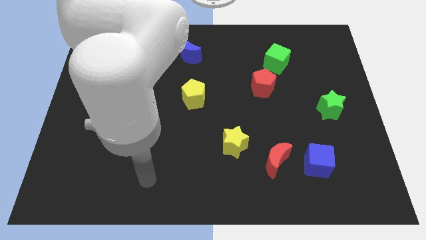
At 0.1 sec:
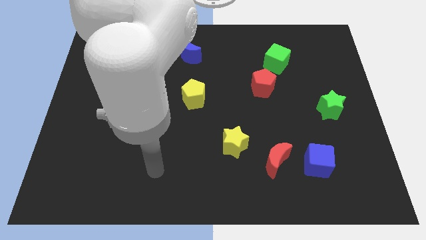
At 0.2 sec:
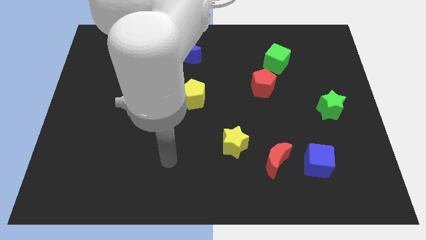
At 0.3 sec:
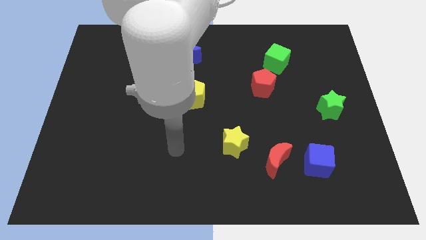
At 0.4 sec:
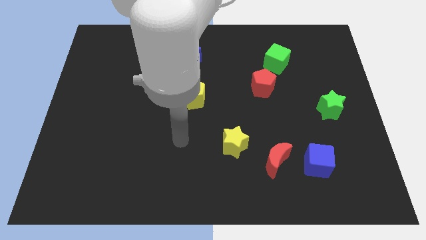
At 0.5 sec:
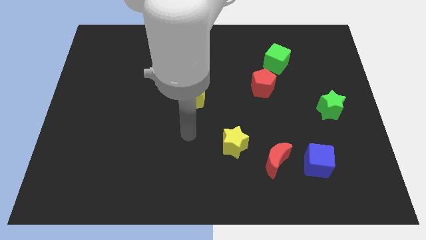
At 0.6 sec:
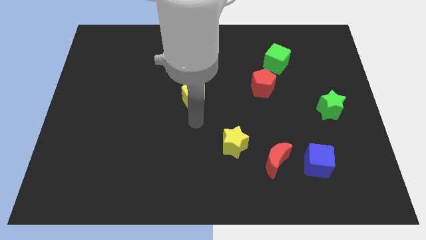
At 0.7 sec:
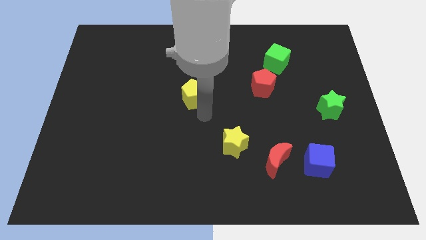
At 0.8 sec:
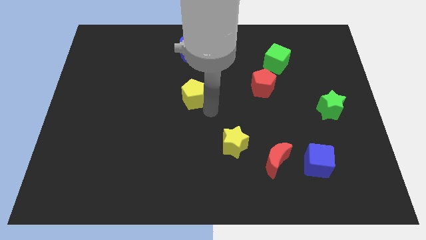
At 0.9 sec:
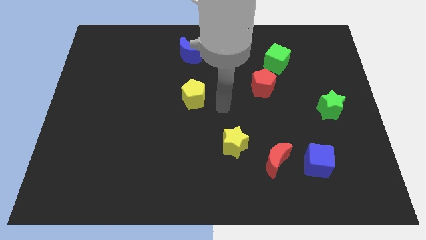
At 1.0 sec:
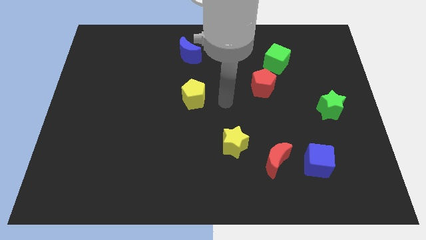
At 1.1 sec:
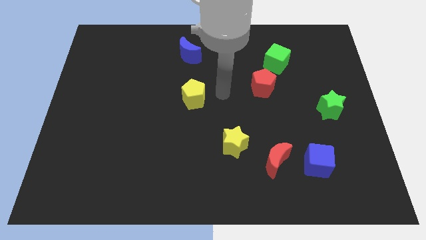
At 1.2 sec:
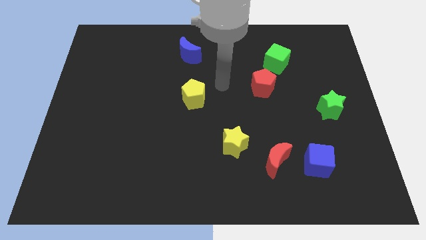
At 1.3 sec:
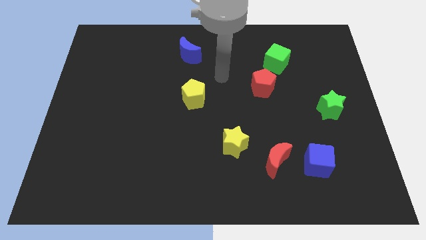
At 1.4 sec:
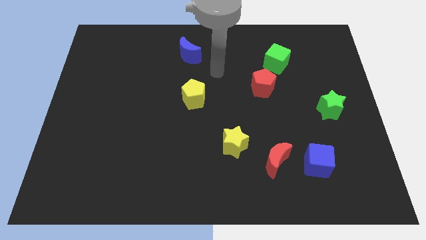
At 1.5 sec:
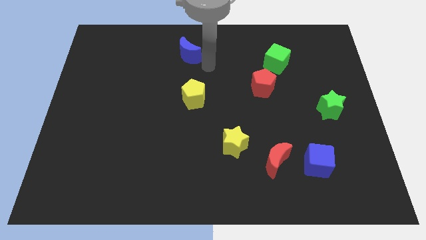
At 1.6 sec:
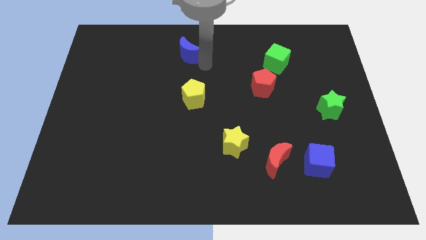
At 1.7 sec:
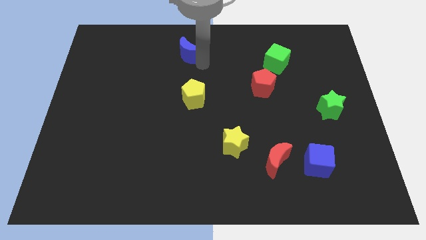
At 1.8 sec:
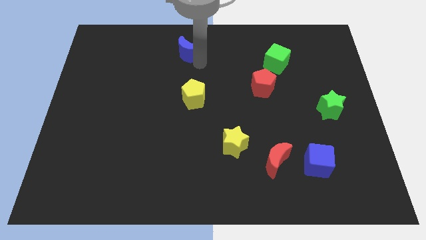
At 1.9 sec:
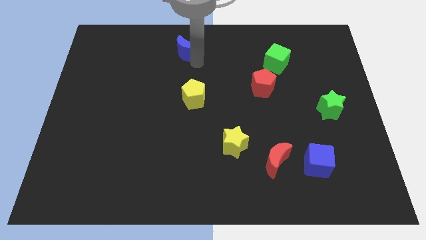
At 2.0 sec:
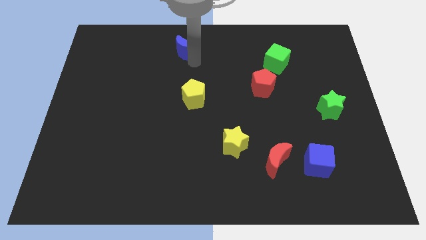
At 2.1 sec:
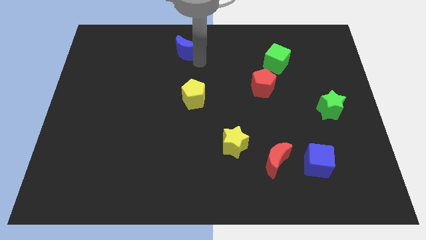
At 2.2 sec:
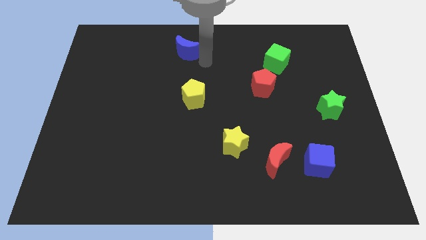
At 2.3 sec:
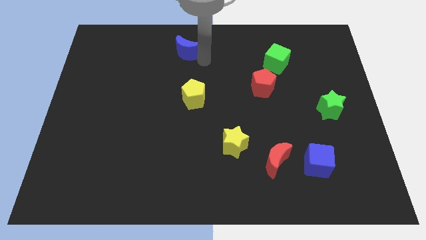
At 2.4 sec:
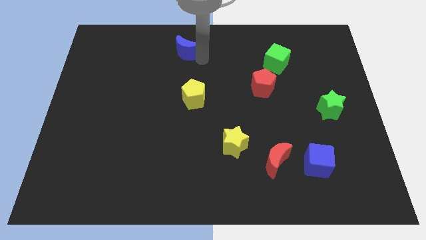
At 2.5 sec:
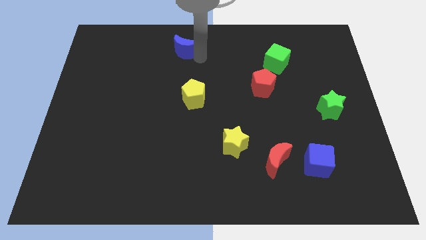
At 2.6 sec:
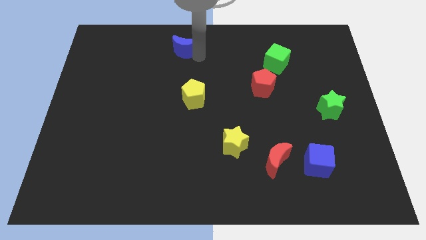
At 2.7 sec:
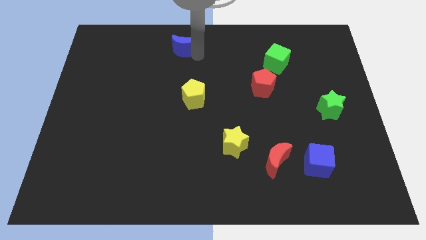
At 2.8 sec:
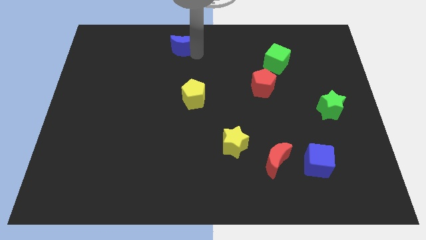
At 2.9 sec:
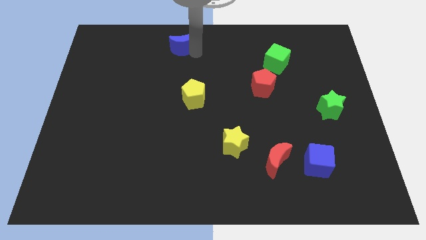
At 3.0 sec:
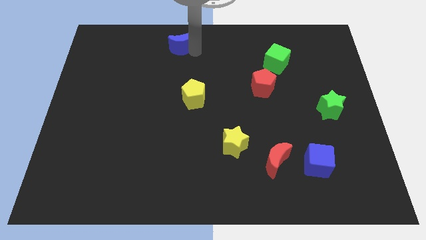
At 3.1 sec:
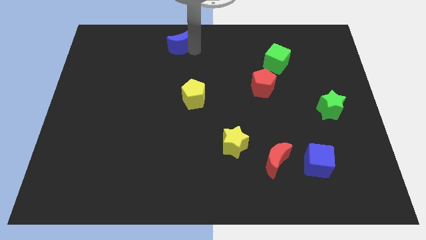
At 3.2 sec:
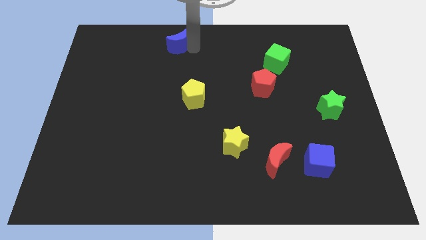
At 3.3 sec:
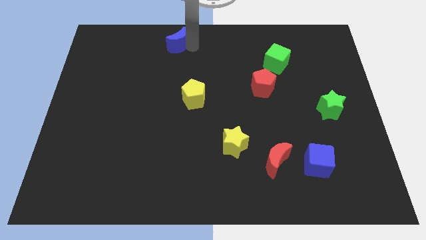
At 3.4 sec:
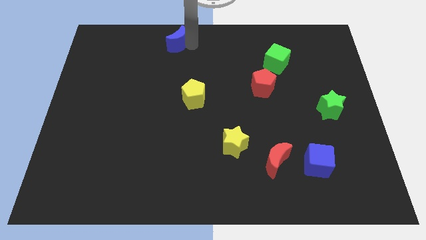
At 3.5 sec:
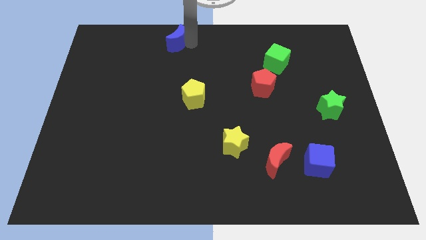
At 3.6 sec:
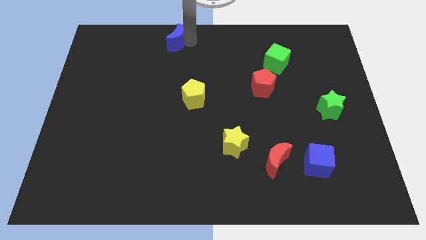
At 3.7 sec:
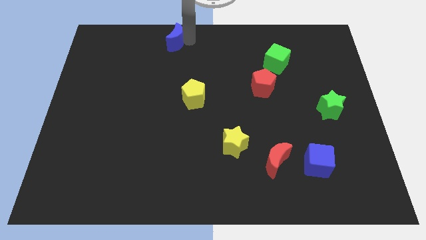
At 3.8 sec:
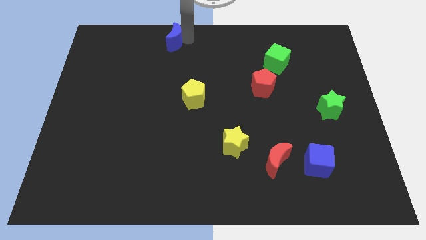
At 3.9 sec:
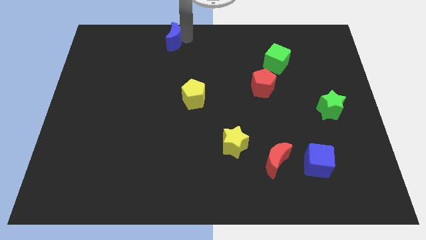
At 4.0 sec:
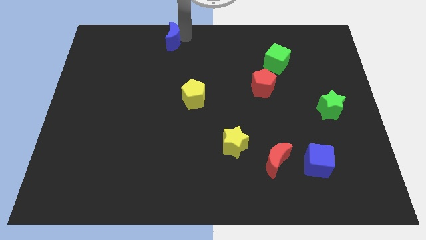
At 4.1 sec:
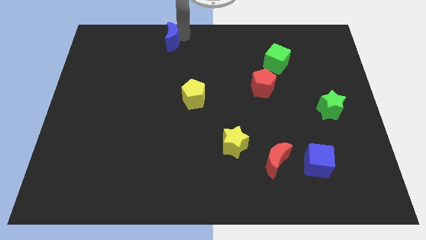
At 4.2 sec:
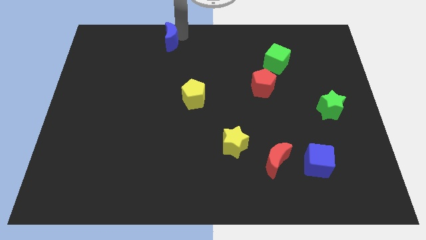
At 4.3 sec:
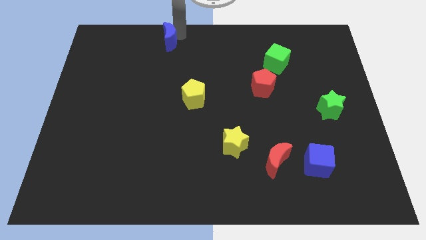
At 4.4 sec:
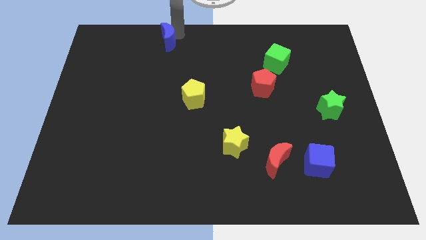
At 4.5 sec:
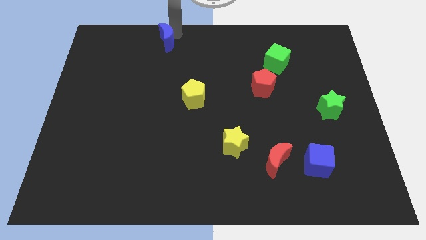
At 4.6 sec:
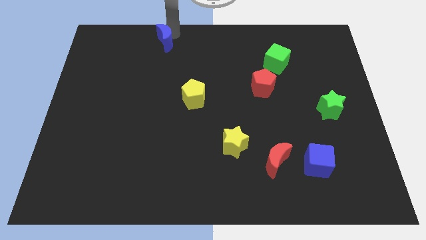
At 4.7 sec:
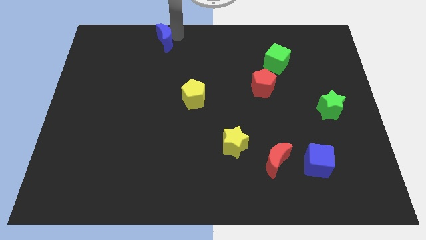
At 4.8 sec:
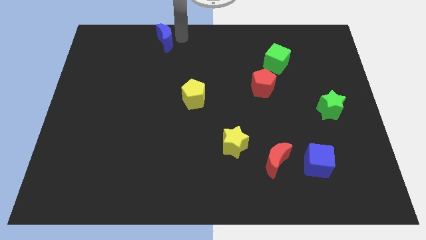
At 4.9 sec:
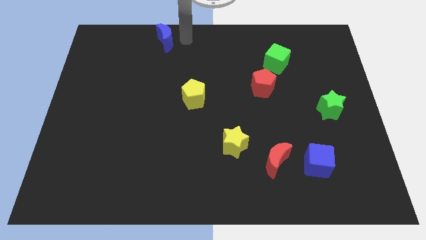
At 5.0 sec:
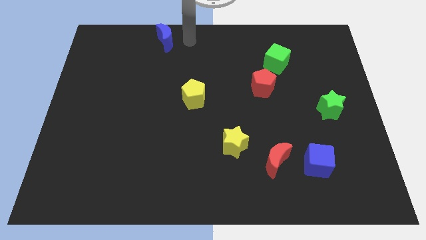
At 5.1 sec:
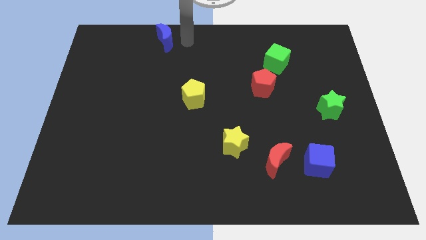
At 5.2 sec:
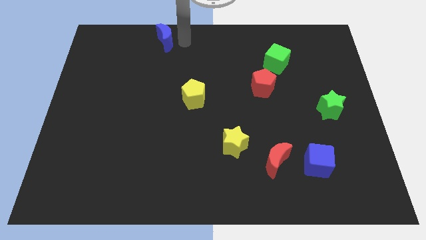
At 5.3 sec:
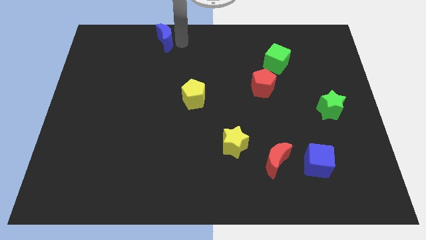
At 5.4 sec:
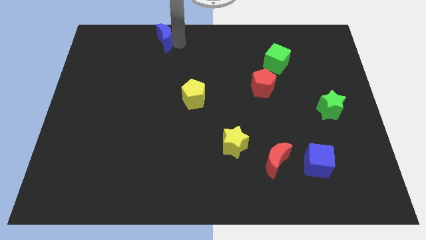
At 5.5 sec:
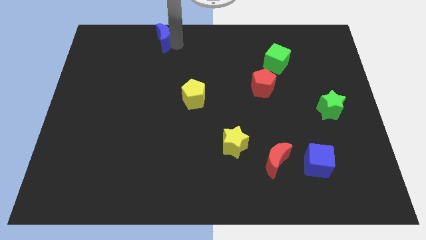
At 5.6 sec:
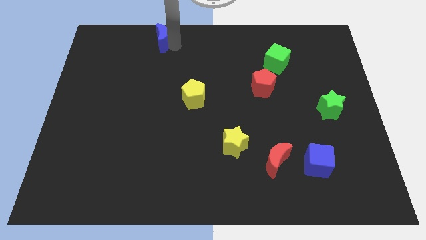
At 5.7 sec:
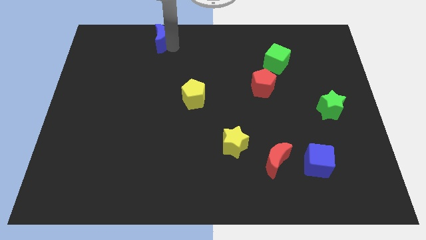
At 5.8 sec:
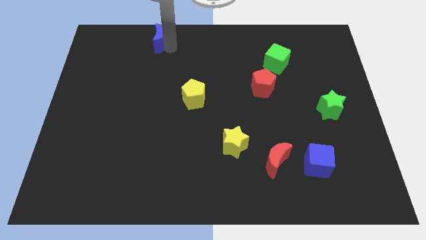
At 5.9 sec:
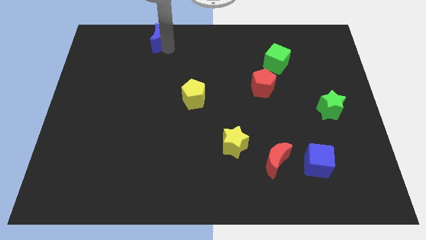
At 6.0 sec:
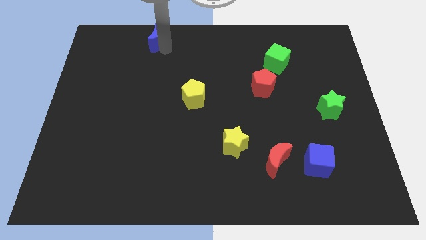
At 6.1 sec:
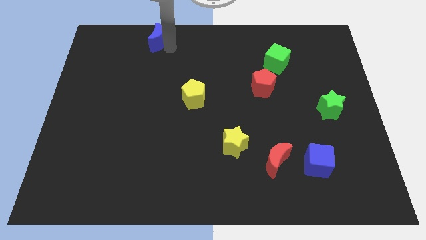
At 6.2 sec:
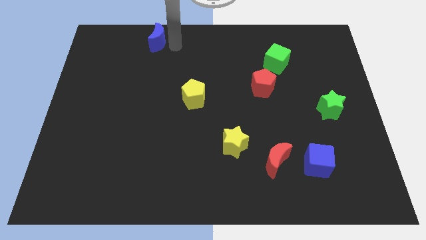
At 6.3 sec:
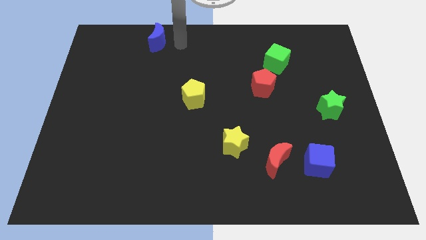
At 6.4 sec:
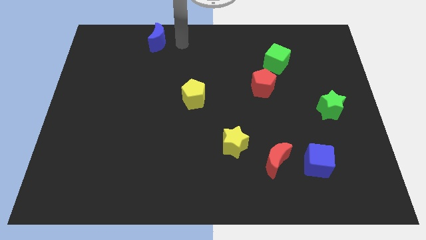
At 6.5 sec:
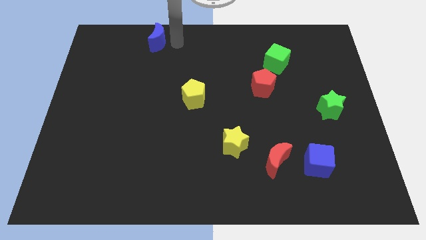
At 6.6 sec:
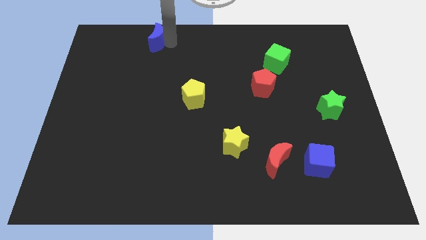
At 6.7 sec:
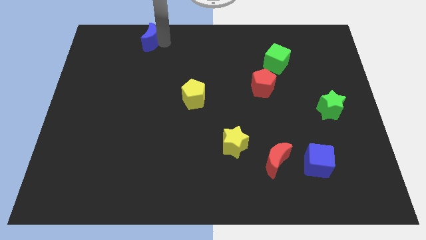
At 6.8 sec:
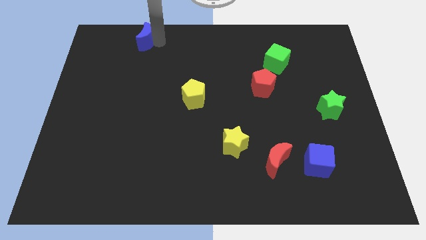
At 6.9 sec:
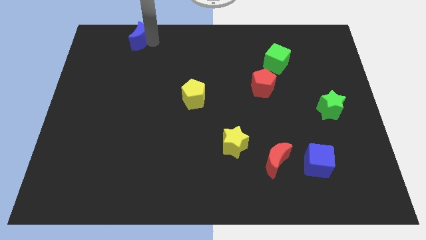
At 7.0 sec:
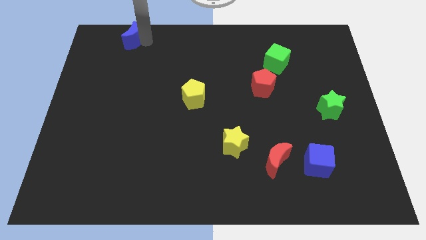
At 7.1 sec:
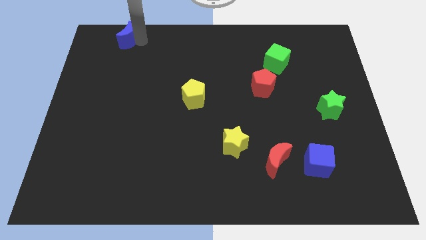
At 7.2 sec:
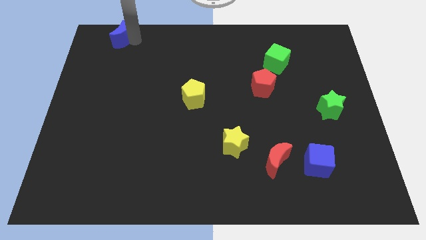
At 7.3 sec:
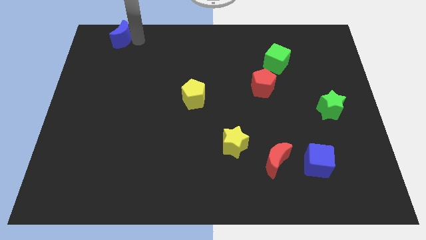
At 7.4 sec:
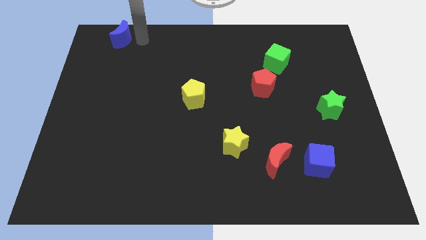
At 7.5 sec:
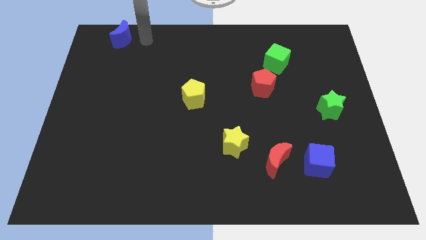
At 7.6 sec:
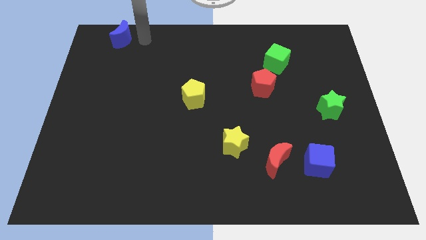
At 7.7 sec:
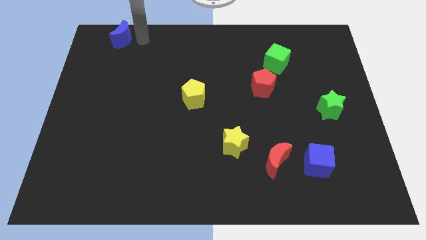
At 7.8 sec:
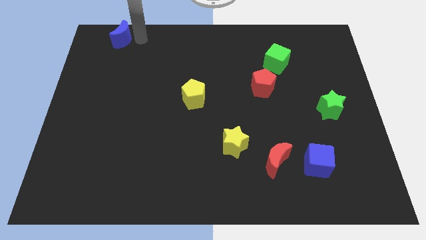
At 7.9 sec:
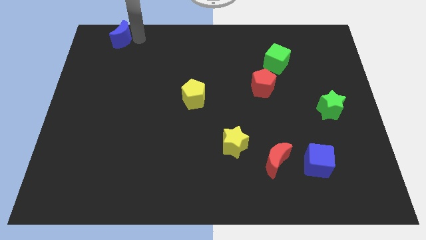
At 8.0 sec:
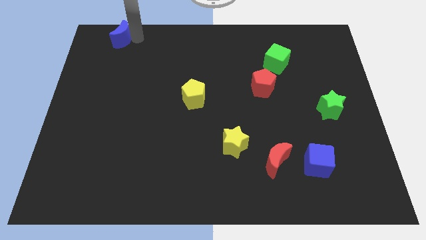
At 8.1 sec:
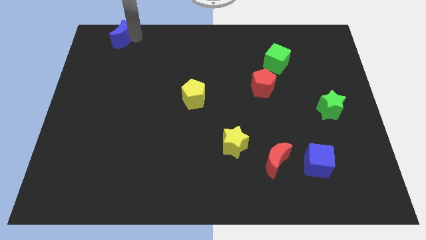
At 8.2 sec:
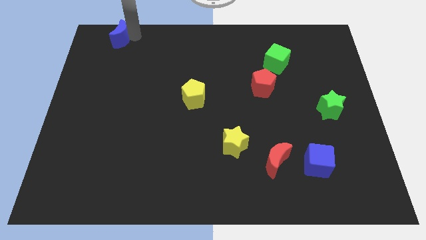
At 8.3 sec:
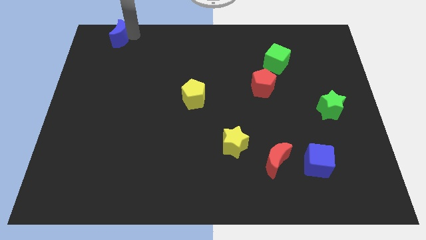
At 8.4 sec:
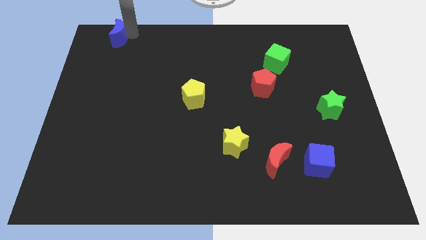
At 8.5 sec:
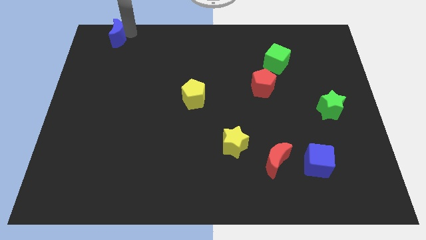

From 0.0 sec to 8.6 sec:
move the blue moon to the upper left corner
